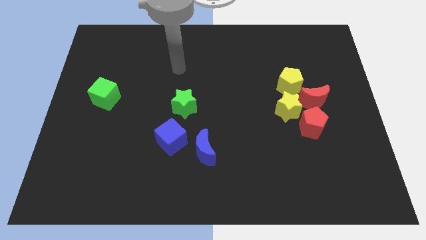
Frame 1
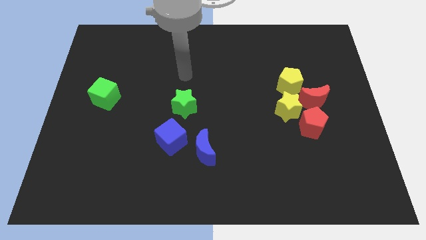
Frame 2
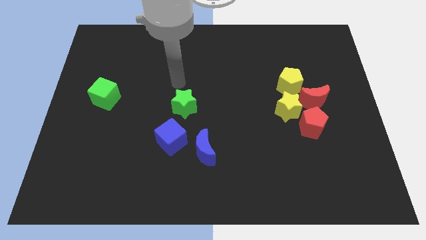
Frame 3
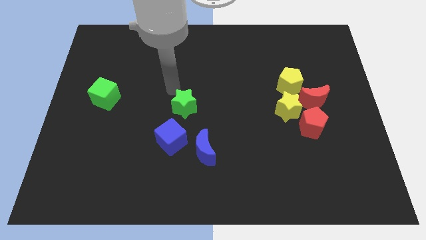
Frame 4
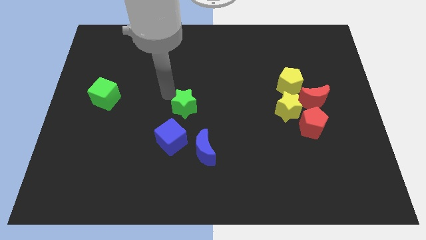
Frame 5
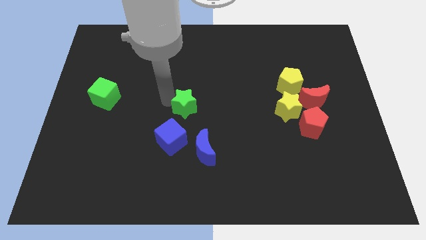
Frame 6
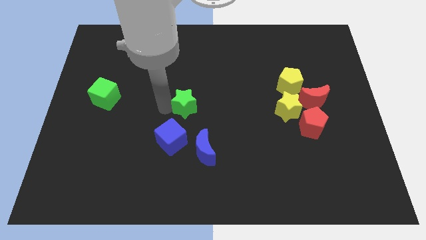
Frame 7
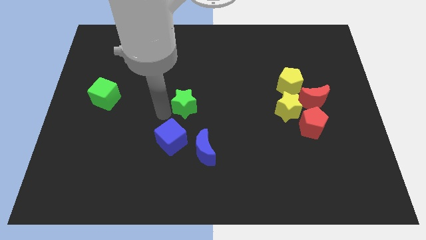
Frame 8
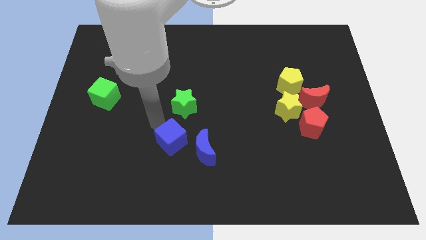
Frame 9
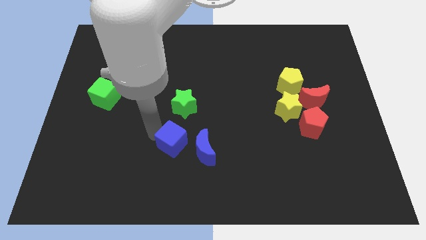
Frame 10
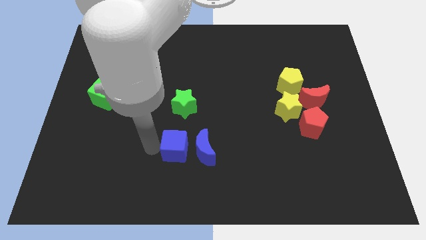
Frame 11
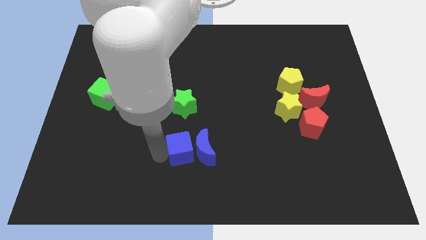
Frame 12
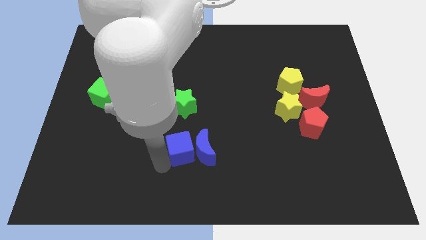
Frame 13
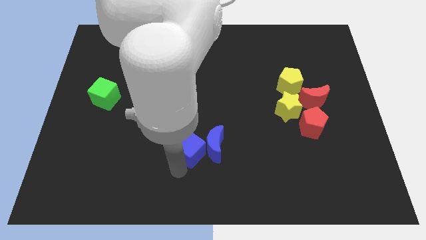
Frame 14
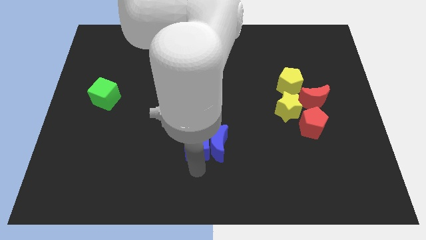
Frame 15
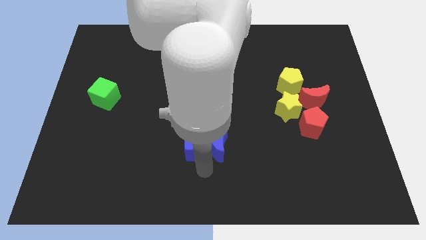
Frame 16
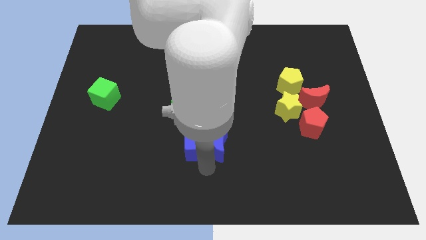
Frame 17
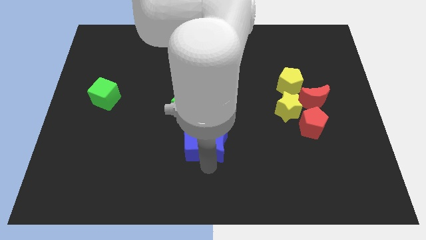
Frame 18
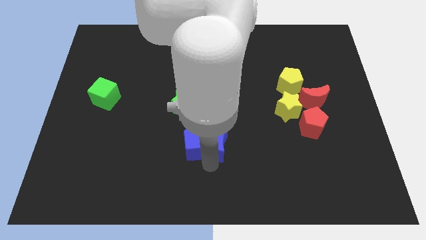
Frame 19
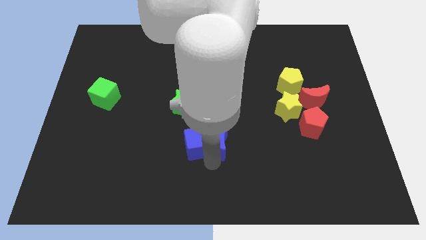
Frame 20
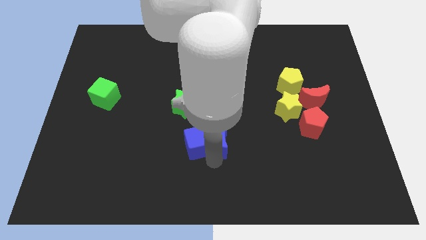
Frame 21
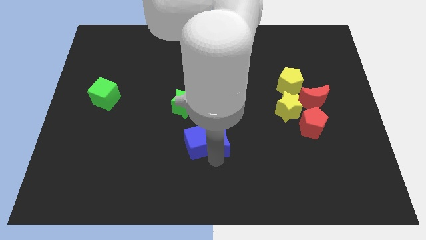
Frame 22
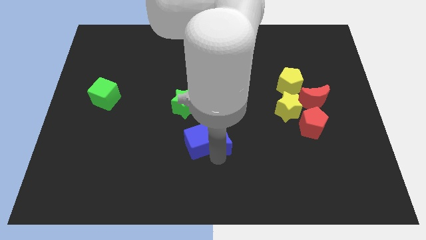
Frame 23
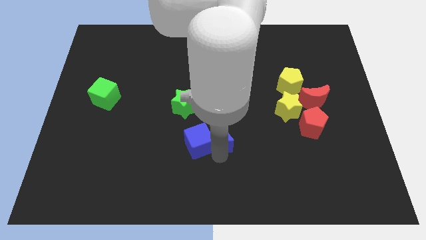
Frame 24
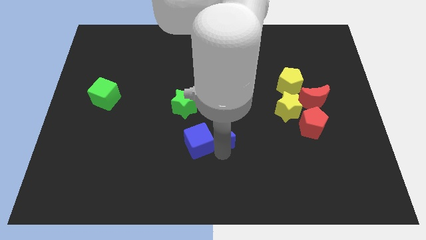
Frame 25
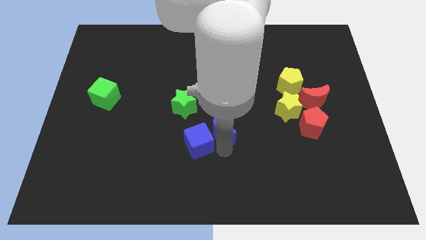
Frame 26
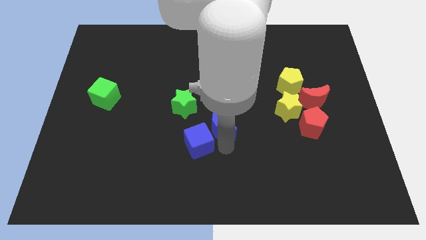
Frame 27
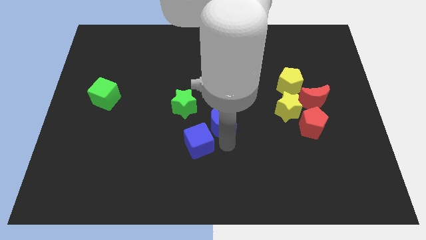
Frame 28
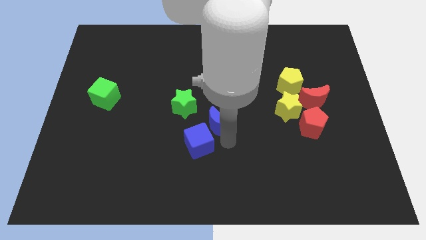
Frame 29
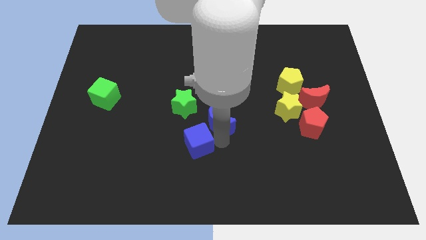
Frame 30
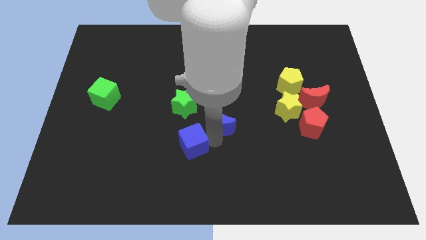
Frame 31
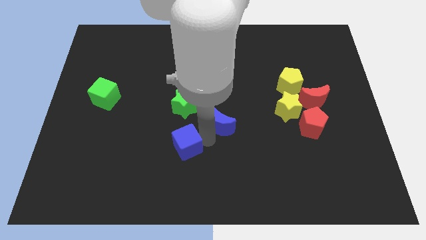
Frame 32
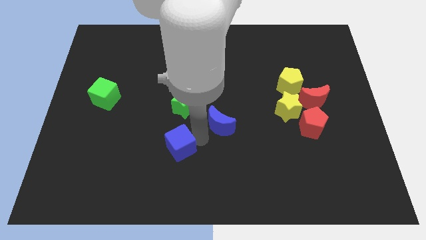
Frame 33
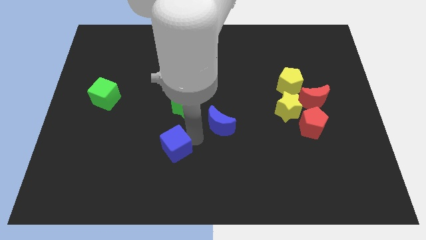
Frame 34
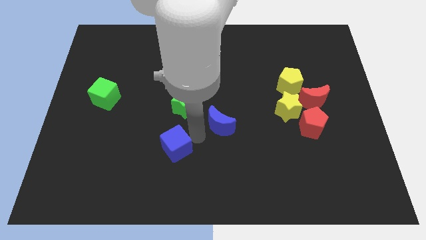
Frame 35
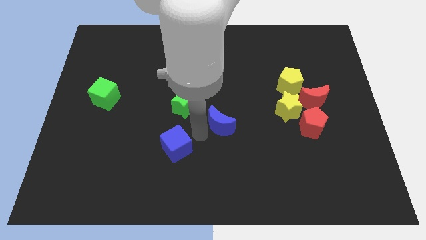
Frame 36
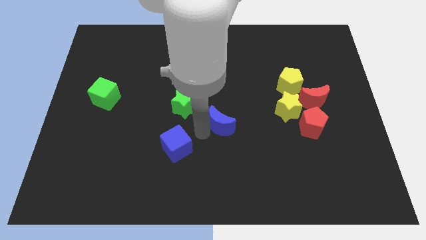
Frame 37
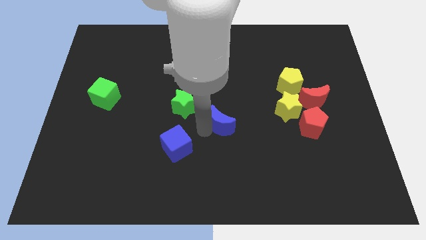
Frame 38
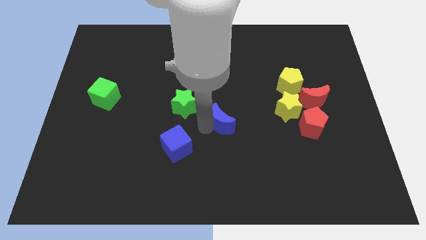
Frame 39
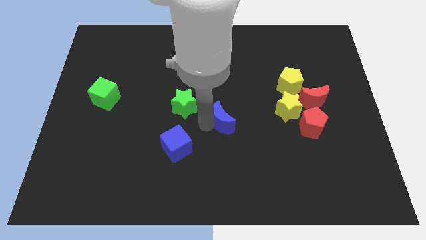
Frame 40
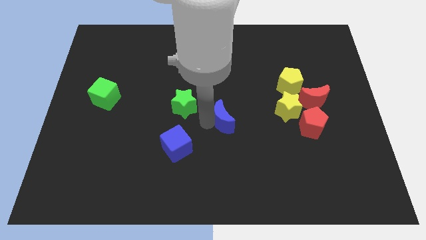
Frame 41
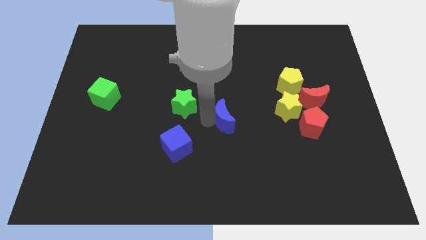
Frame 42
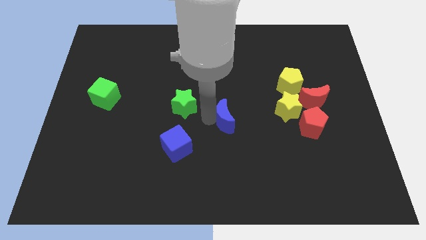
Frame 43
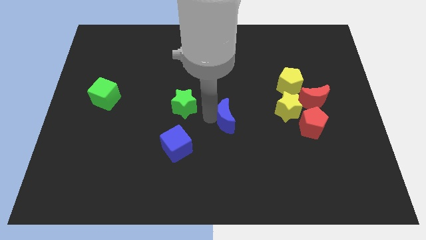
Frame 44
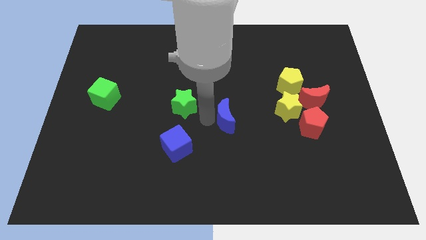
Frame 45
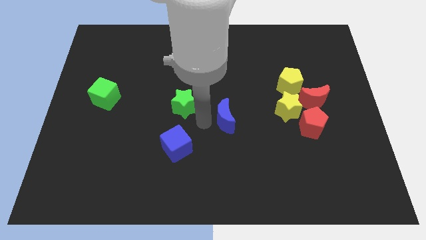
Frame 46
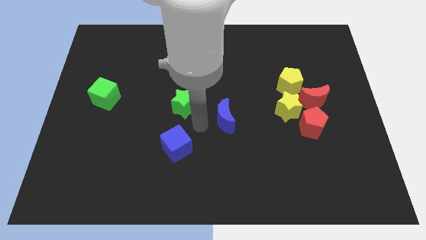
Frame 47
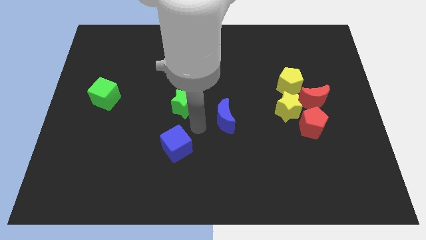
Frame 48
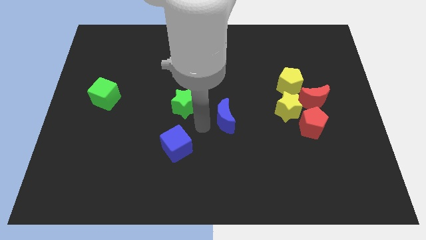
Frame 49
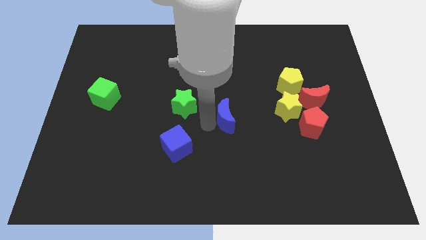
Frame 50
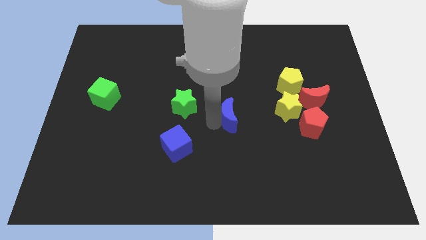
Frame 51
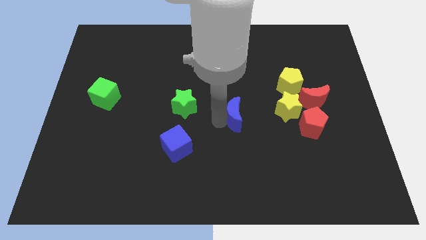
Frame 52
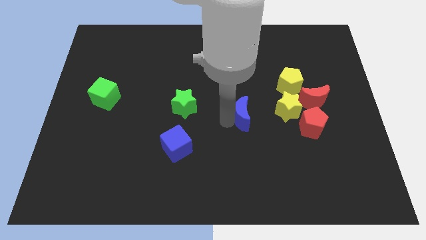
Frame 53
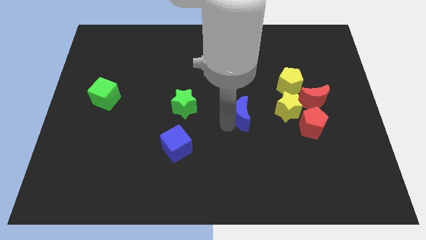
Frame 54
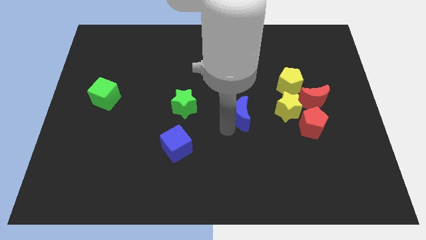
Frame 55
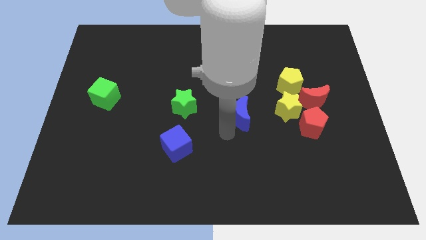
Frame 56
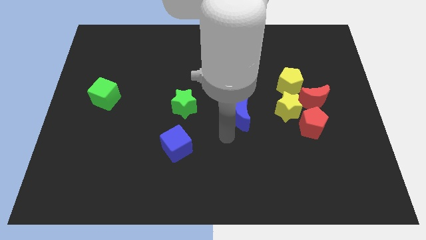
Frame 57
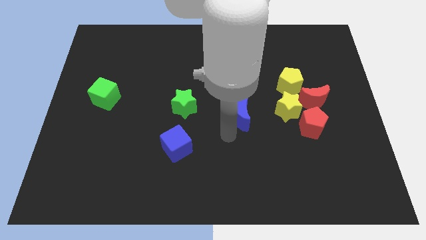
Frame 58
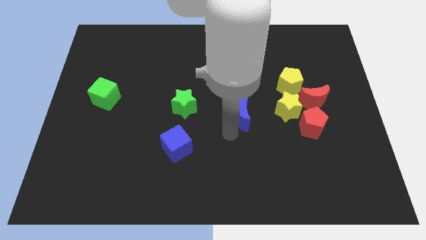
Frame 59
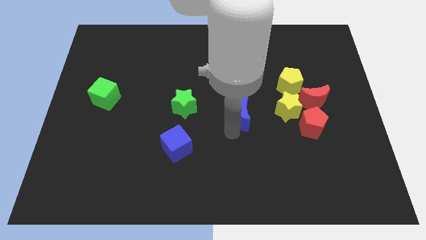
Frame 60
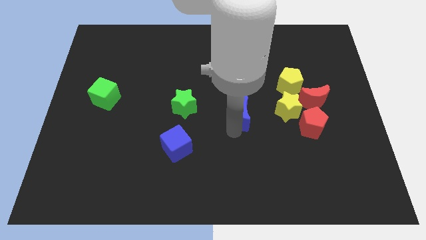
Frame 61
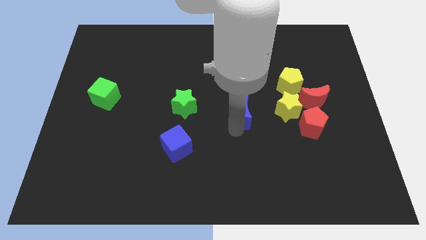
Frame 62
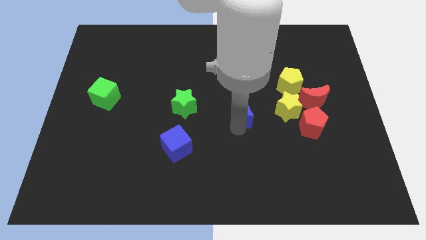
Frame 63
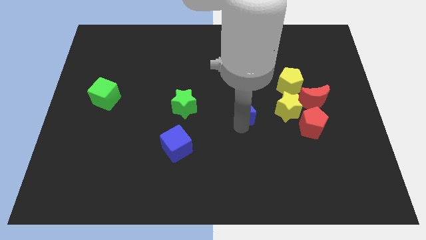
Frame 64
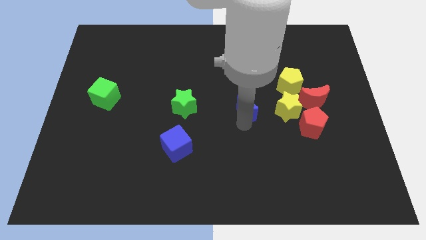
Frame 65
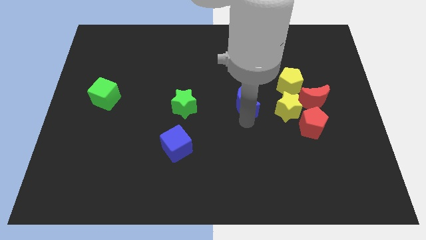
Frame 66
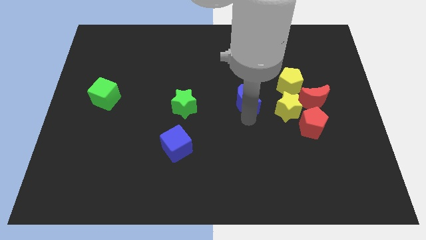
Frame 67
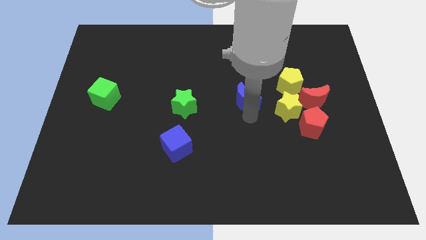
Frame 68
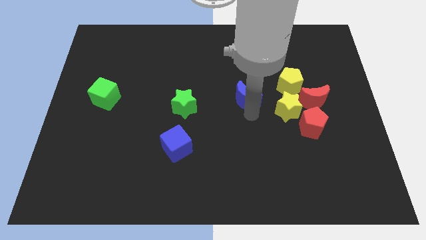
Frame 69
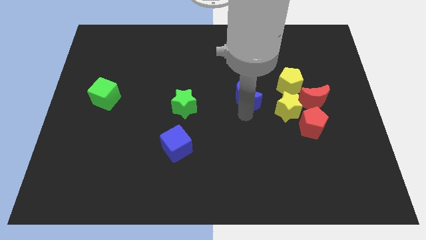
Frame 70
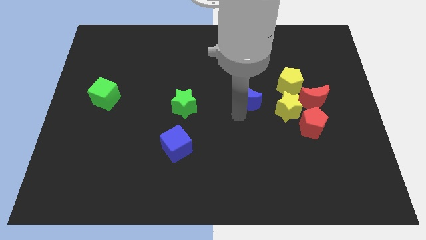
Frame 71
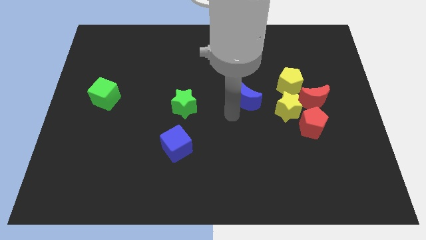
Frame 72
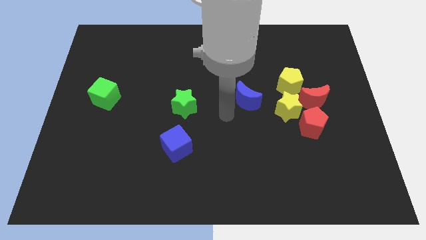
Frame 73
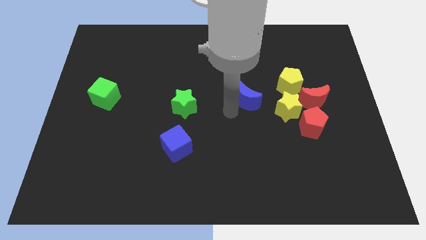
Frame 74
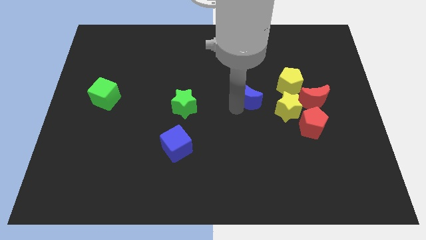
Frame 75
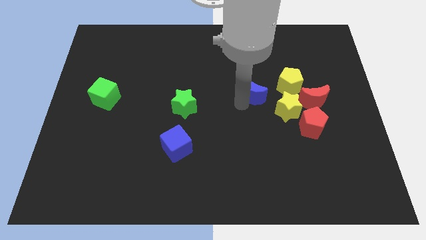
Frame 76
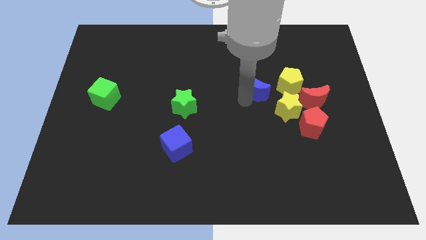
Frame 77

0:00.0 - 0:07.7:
move the blue moon up and to the right
